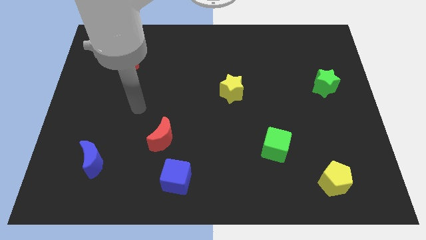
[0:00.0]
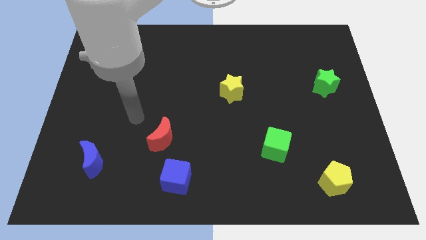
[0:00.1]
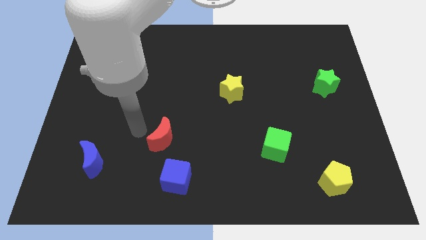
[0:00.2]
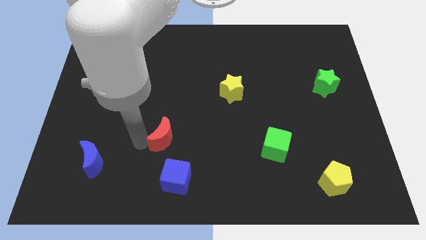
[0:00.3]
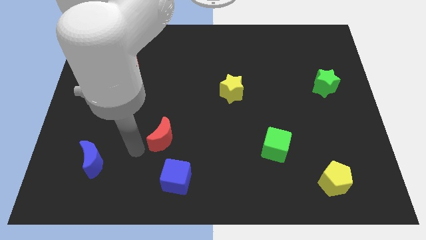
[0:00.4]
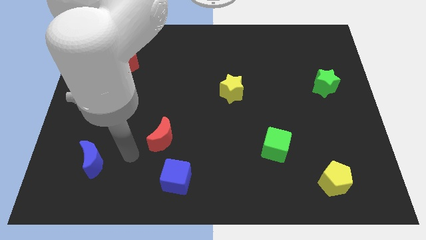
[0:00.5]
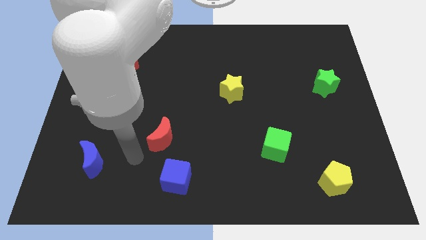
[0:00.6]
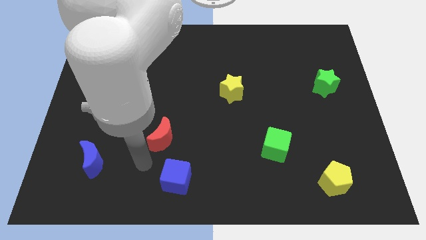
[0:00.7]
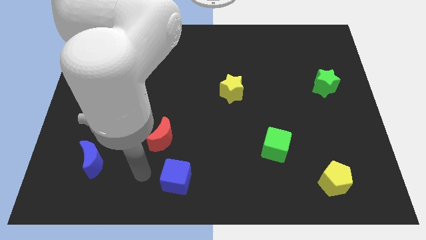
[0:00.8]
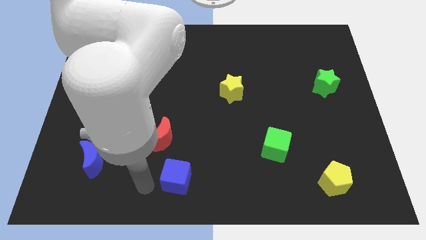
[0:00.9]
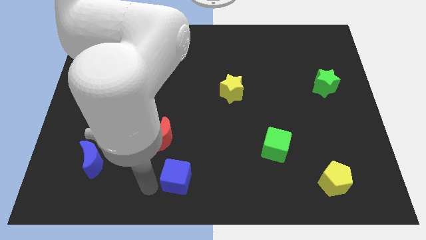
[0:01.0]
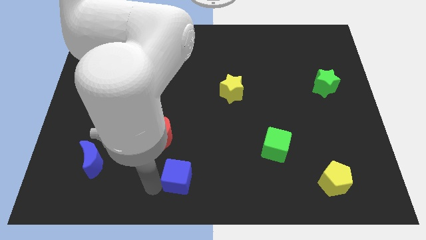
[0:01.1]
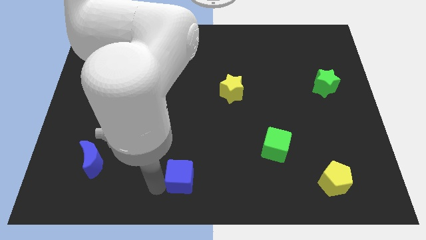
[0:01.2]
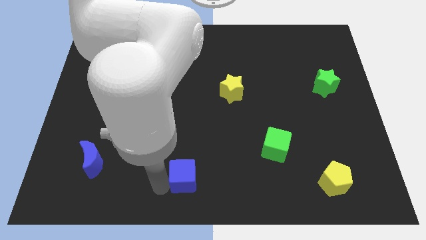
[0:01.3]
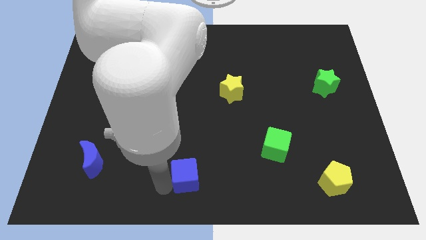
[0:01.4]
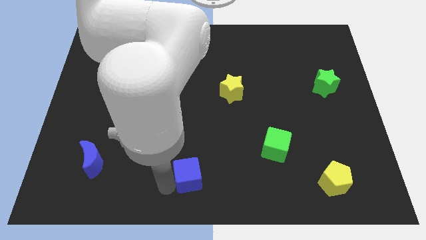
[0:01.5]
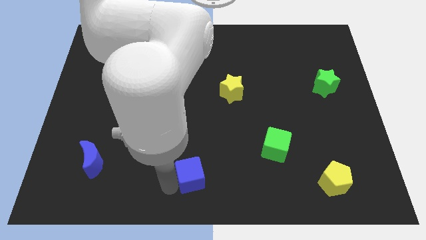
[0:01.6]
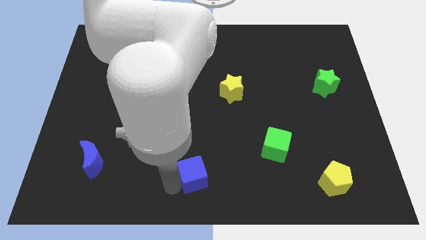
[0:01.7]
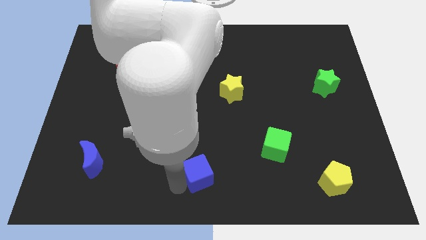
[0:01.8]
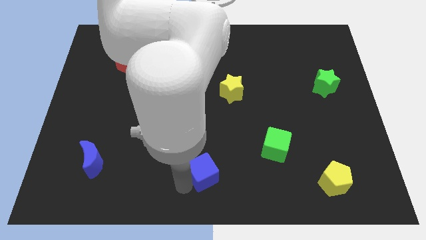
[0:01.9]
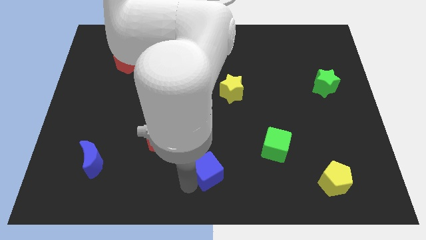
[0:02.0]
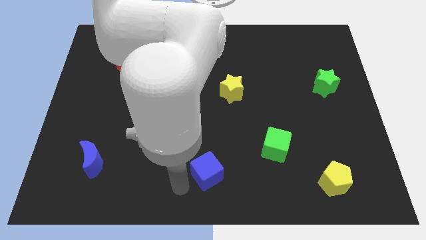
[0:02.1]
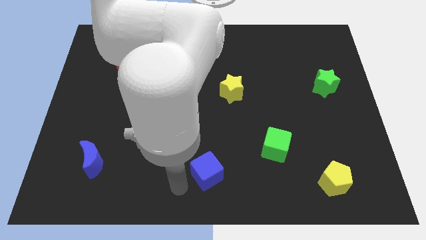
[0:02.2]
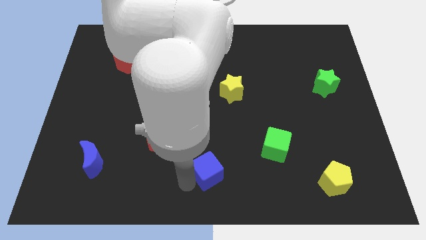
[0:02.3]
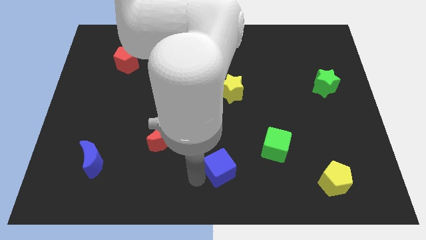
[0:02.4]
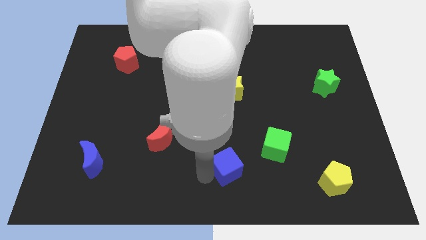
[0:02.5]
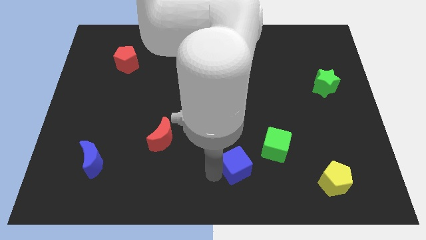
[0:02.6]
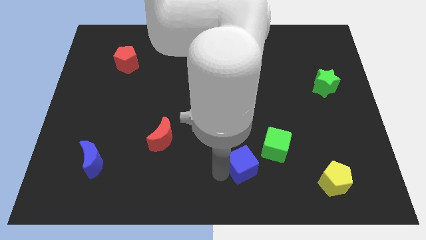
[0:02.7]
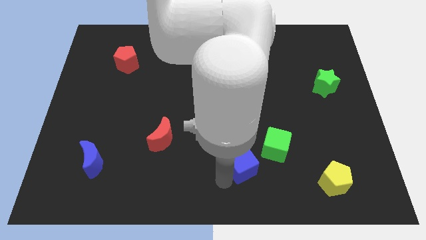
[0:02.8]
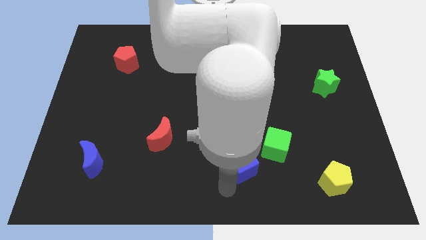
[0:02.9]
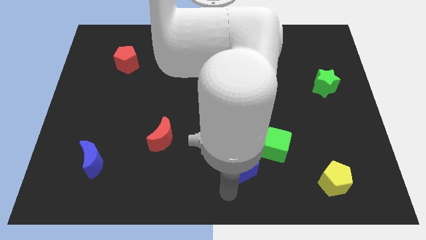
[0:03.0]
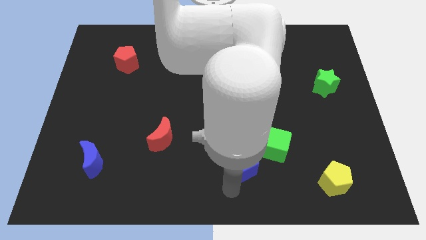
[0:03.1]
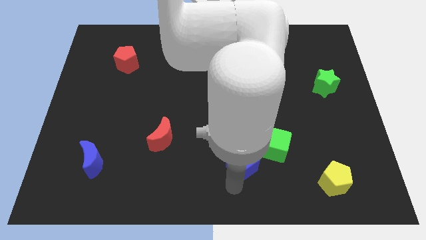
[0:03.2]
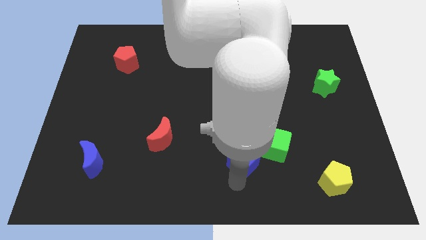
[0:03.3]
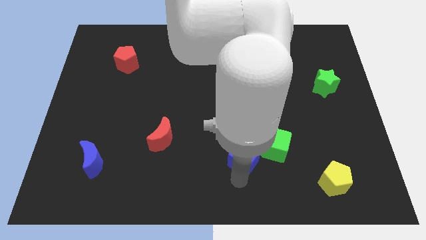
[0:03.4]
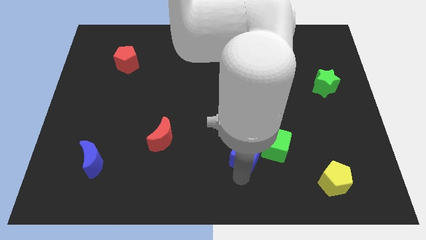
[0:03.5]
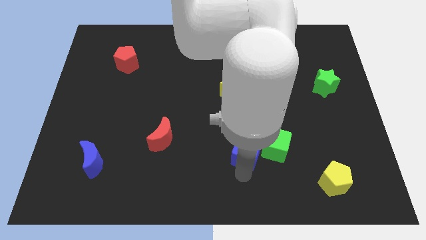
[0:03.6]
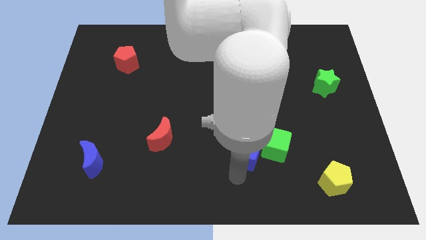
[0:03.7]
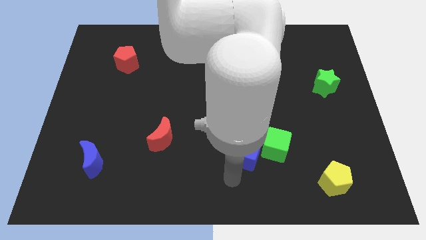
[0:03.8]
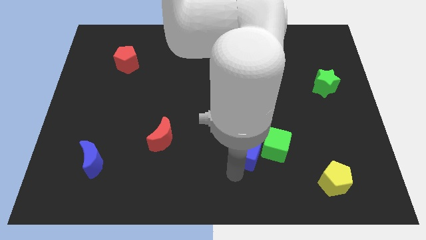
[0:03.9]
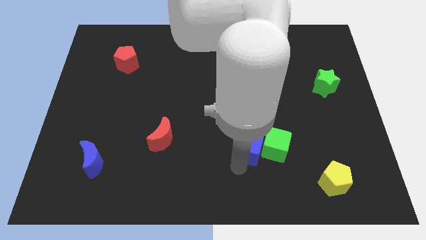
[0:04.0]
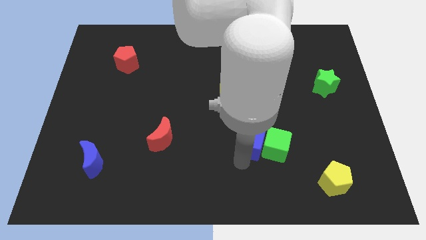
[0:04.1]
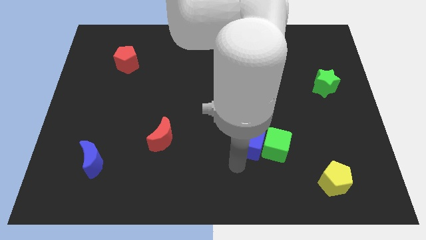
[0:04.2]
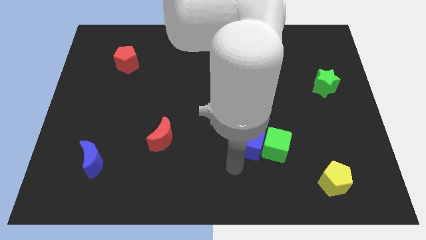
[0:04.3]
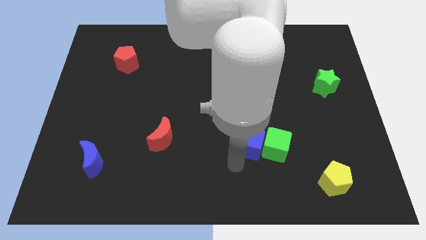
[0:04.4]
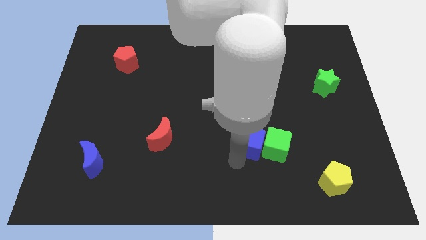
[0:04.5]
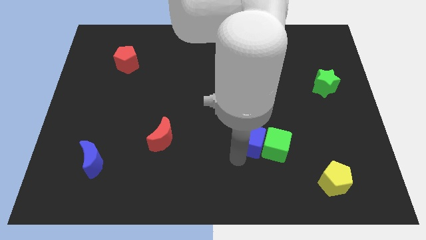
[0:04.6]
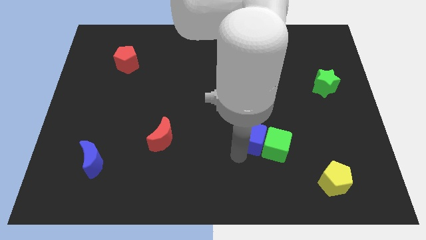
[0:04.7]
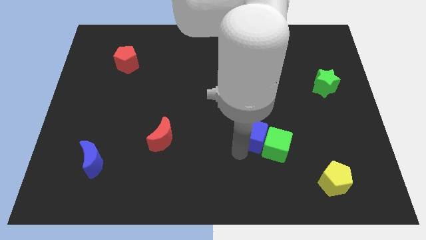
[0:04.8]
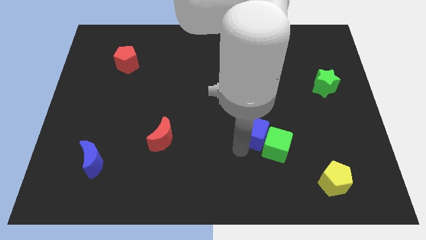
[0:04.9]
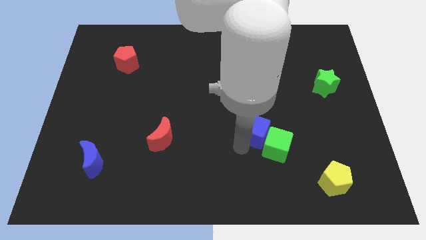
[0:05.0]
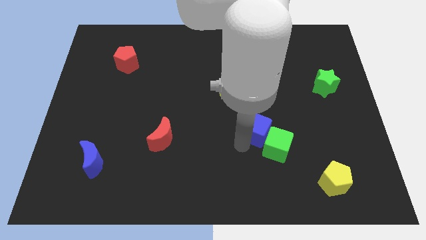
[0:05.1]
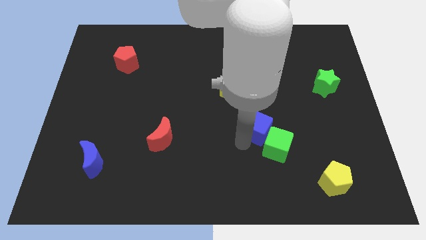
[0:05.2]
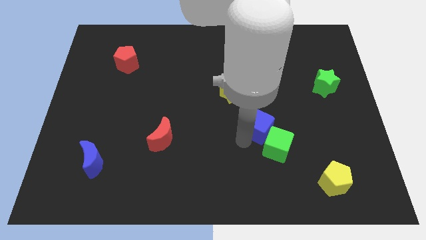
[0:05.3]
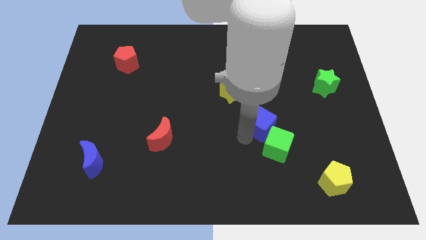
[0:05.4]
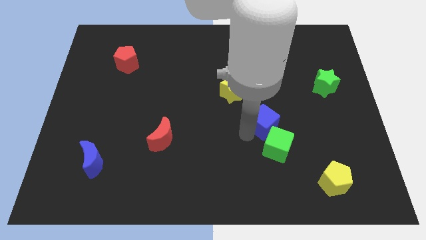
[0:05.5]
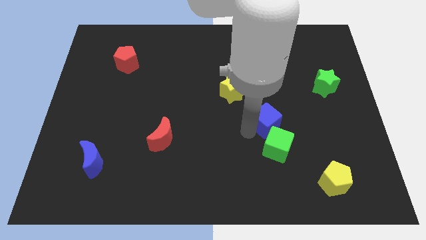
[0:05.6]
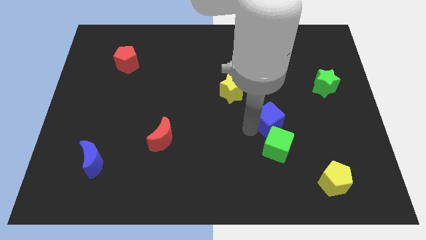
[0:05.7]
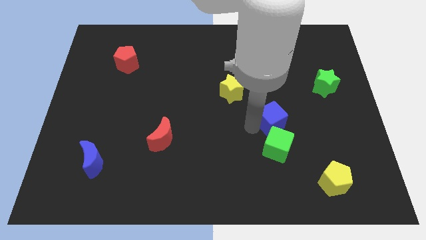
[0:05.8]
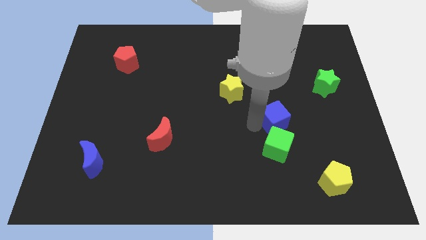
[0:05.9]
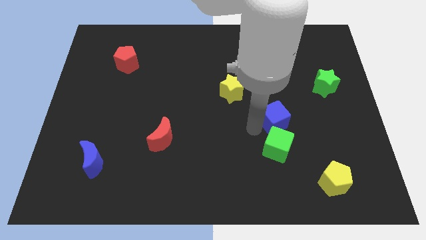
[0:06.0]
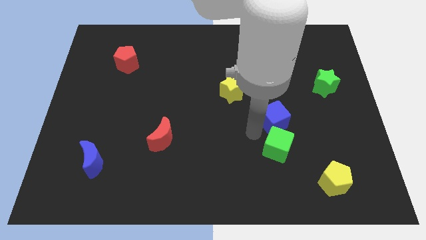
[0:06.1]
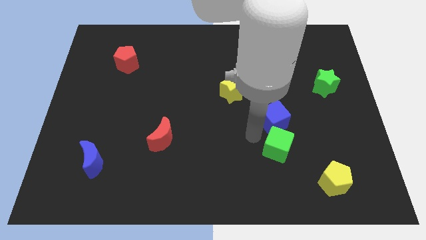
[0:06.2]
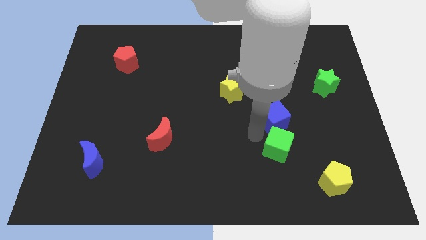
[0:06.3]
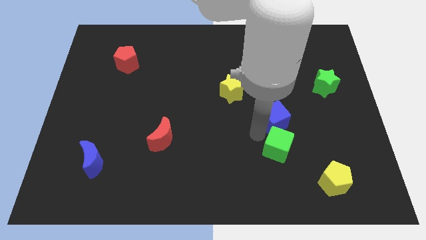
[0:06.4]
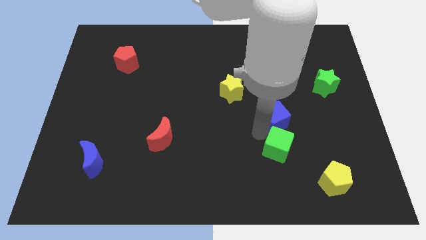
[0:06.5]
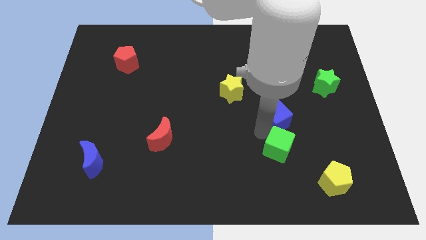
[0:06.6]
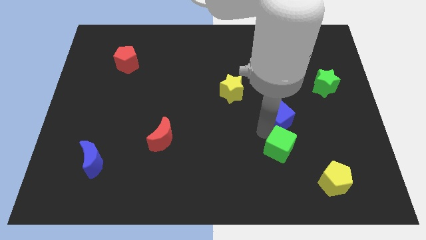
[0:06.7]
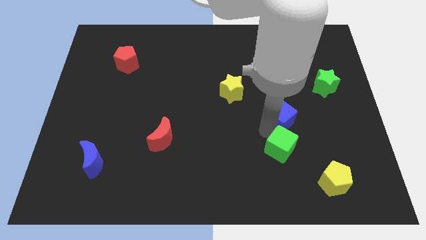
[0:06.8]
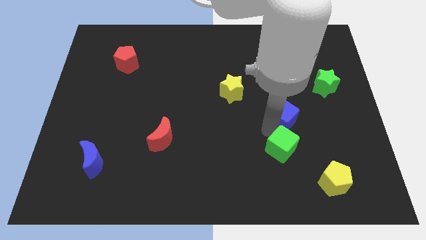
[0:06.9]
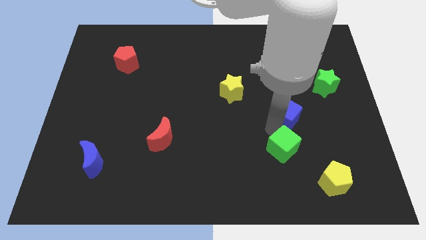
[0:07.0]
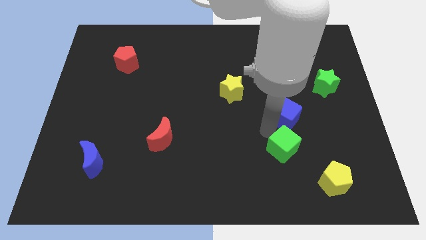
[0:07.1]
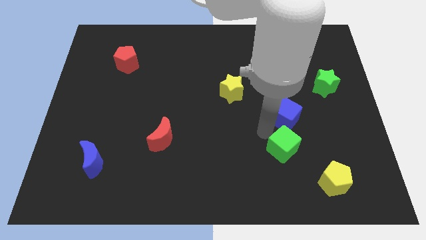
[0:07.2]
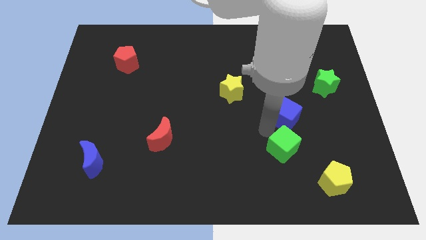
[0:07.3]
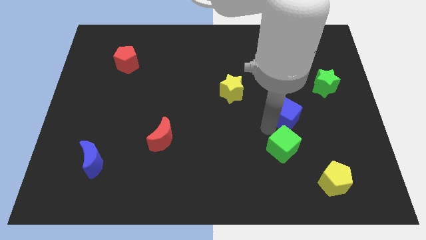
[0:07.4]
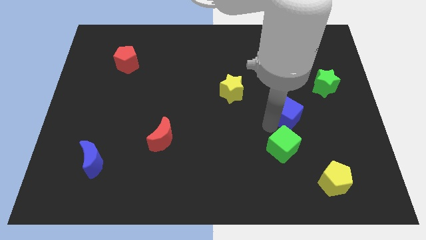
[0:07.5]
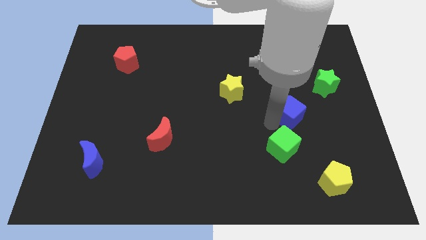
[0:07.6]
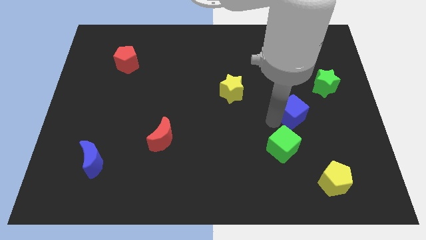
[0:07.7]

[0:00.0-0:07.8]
slide the blue cube diagonally down and to the left of the green star
